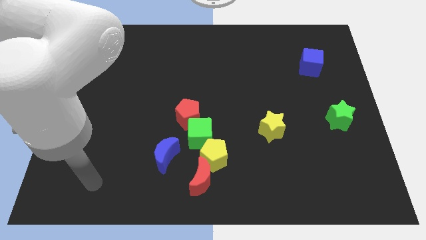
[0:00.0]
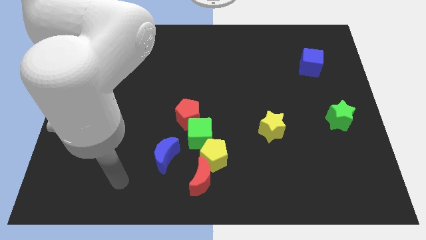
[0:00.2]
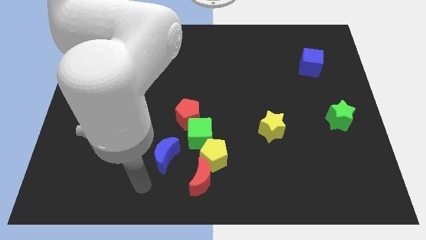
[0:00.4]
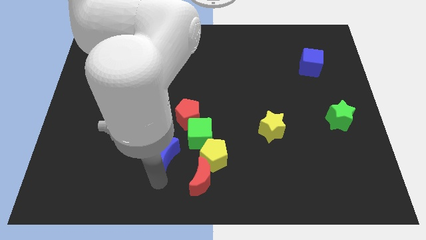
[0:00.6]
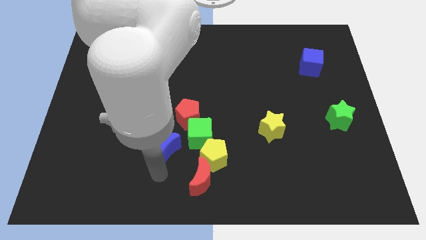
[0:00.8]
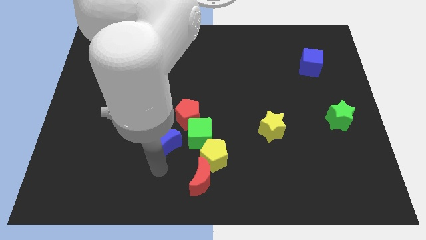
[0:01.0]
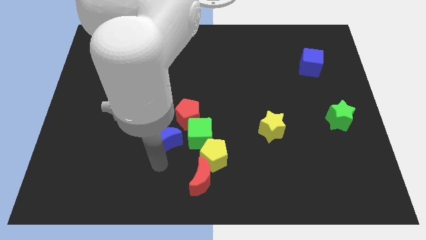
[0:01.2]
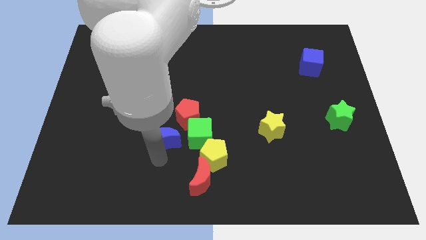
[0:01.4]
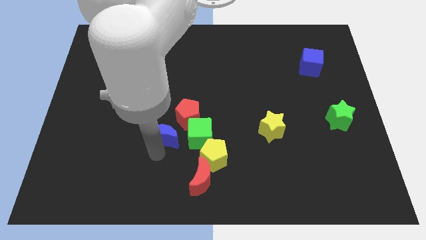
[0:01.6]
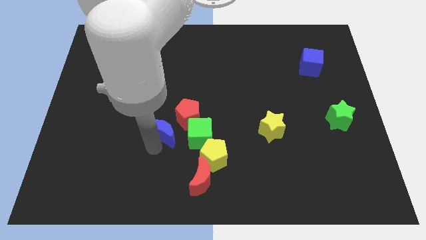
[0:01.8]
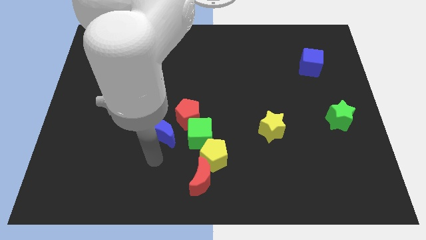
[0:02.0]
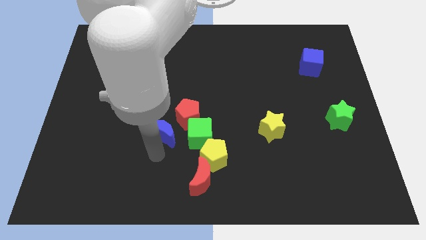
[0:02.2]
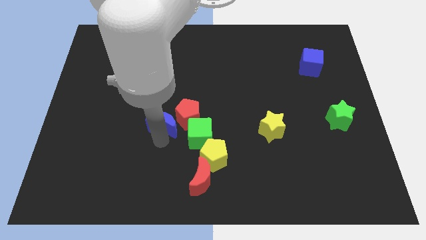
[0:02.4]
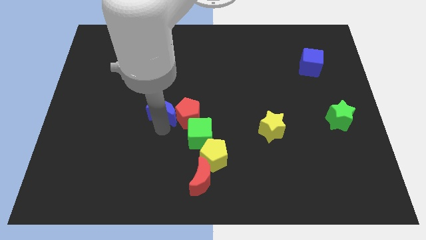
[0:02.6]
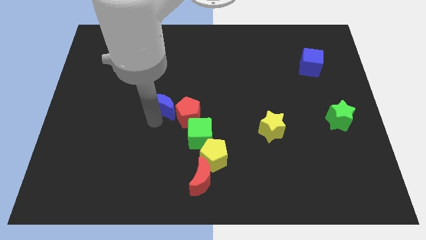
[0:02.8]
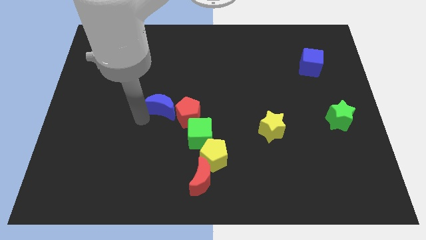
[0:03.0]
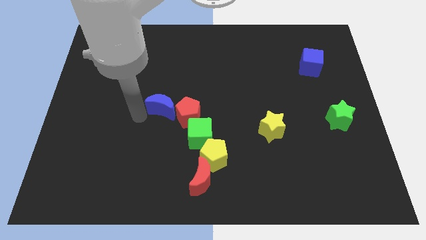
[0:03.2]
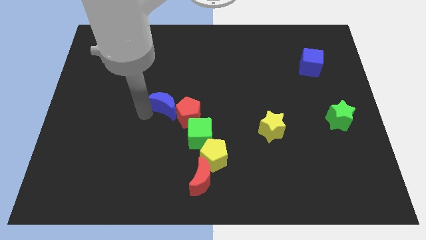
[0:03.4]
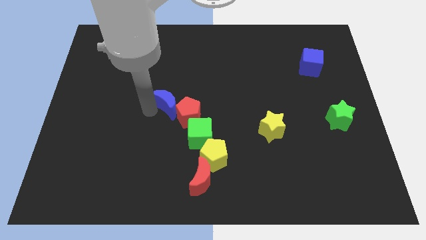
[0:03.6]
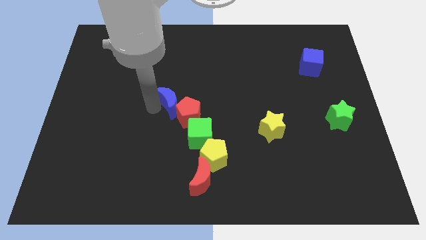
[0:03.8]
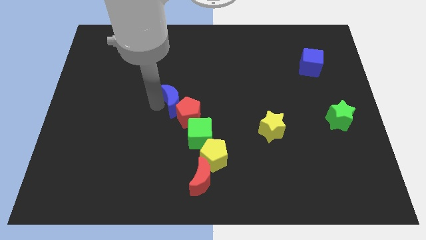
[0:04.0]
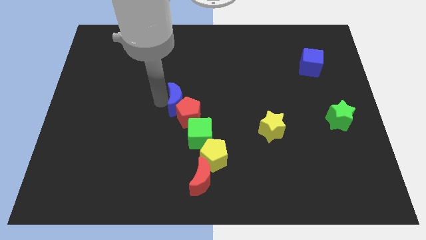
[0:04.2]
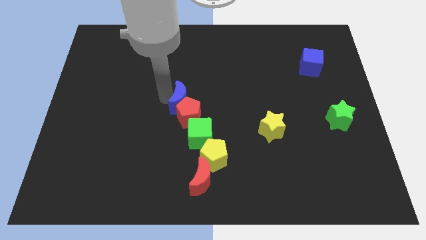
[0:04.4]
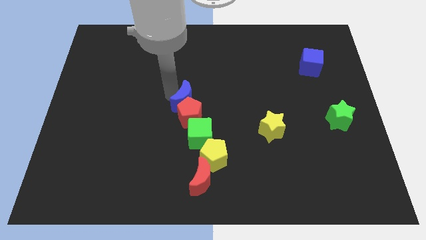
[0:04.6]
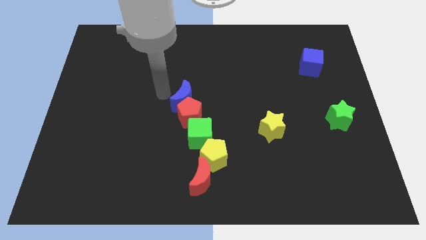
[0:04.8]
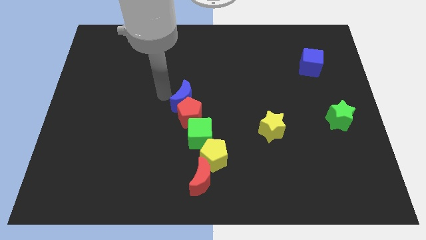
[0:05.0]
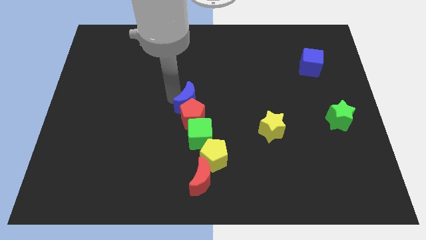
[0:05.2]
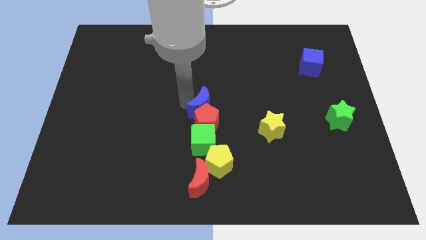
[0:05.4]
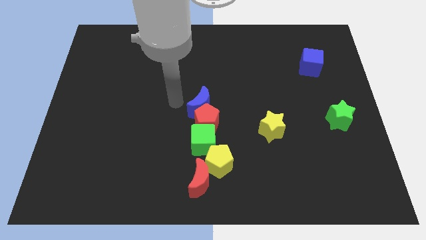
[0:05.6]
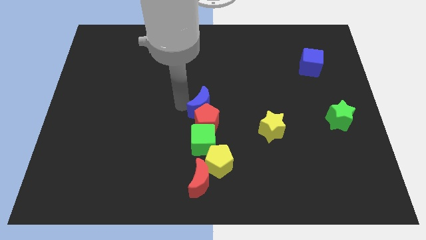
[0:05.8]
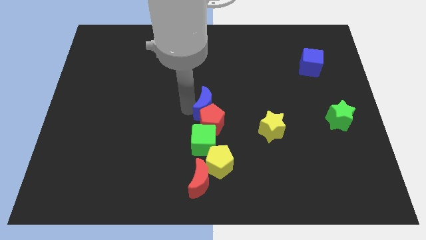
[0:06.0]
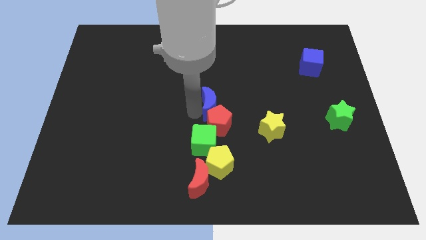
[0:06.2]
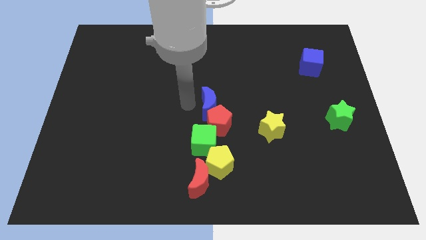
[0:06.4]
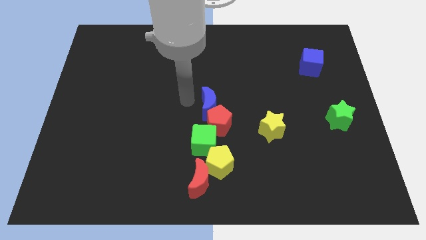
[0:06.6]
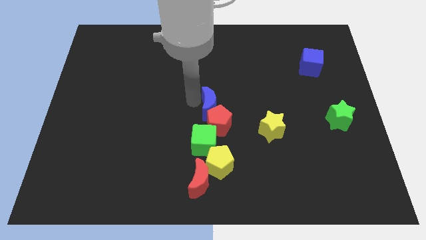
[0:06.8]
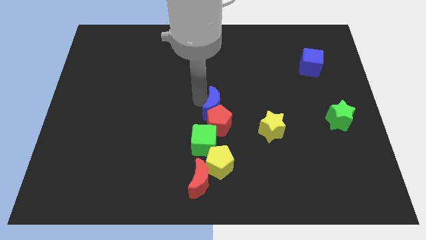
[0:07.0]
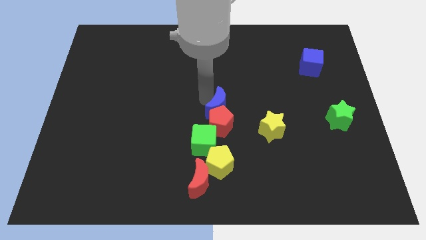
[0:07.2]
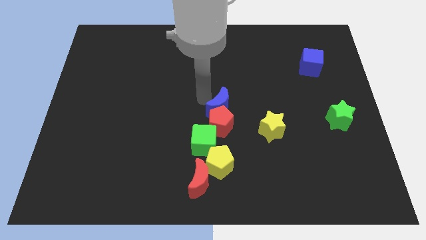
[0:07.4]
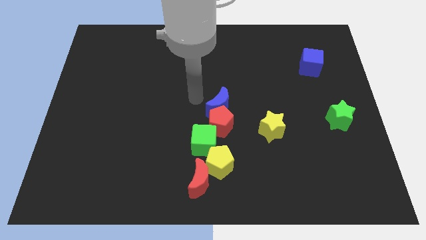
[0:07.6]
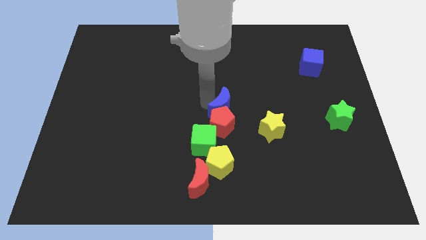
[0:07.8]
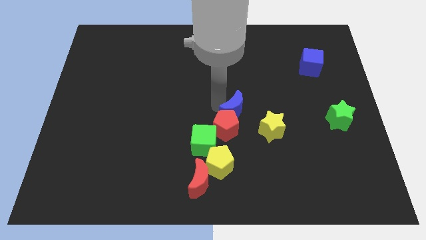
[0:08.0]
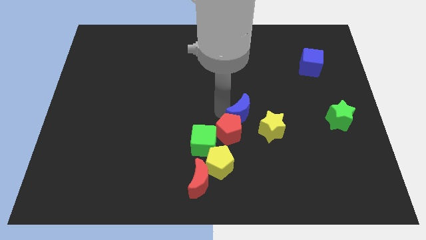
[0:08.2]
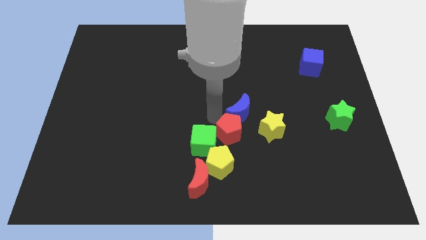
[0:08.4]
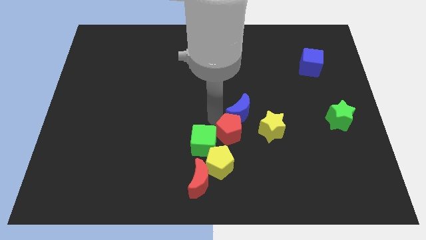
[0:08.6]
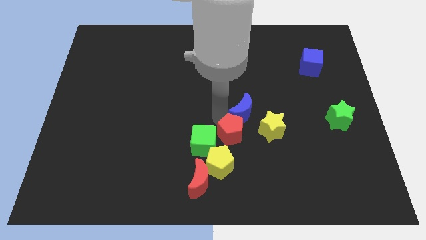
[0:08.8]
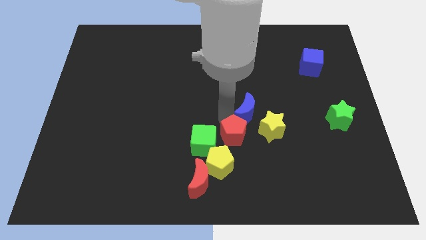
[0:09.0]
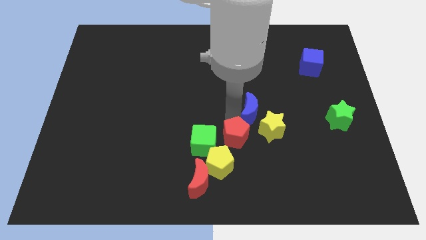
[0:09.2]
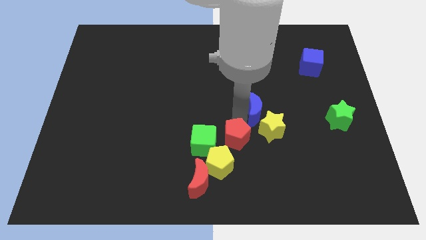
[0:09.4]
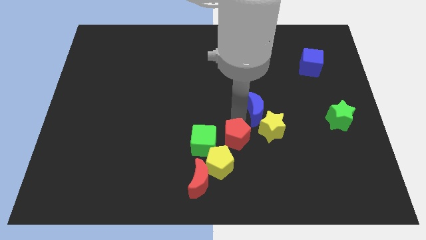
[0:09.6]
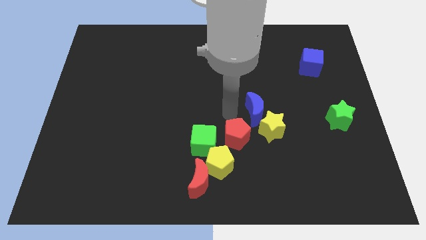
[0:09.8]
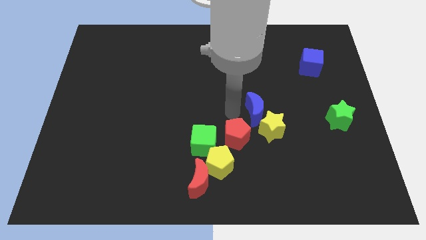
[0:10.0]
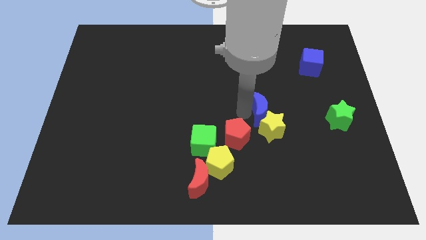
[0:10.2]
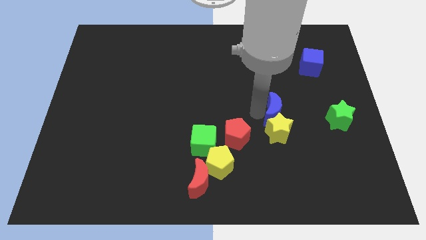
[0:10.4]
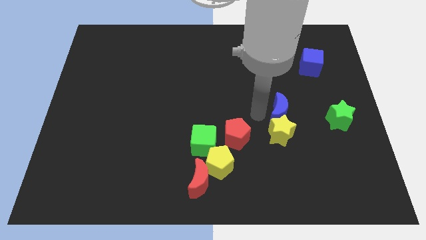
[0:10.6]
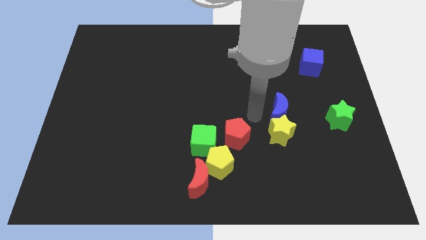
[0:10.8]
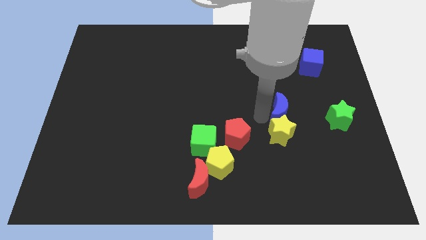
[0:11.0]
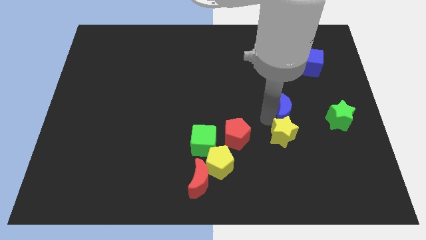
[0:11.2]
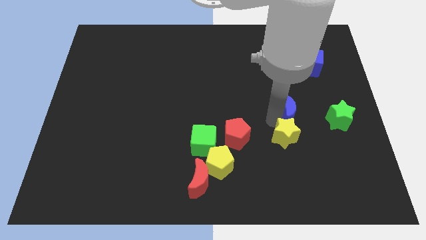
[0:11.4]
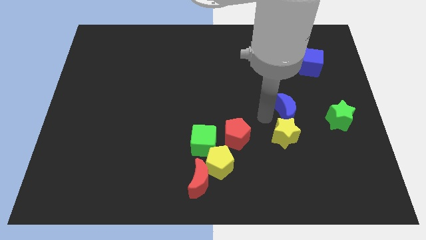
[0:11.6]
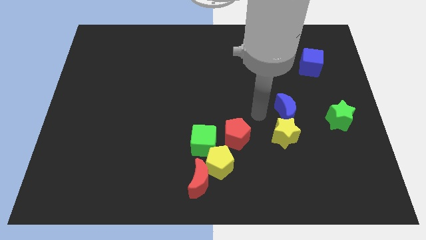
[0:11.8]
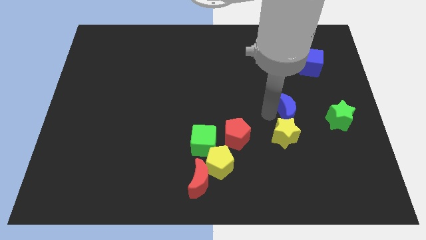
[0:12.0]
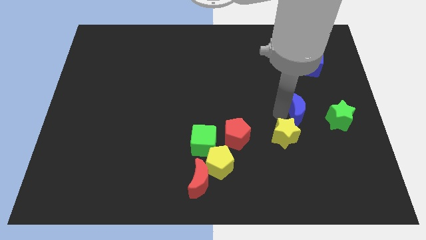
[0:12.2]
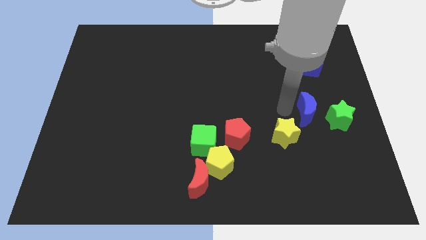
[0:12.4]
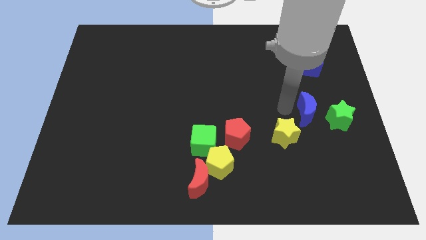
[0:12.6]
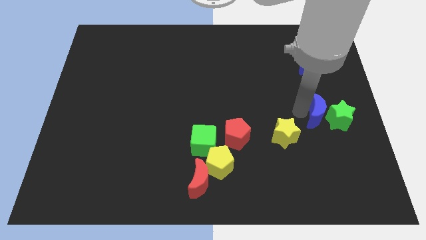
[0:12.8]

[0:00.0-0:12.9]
put the blue moon towards the green star

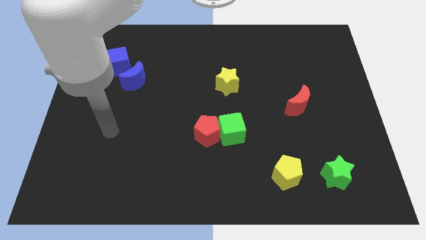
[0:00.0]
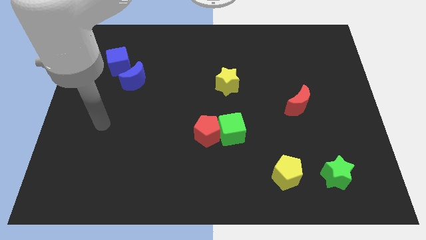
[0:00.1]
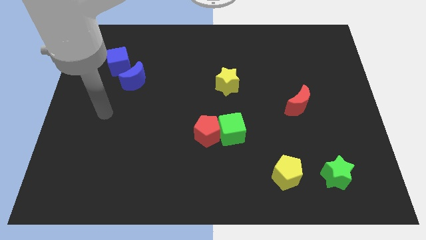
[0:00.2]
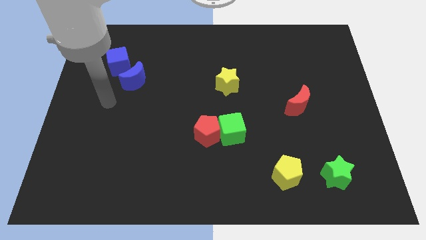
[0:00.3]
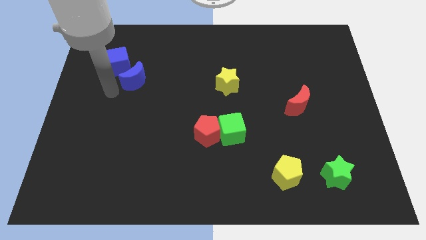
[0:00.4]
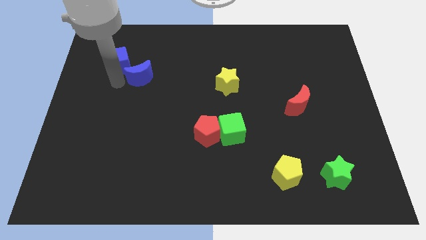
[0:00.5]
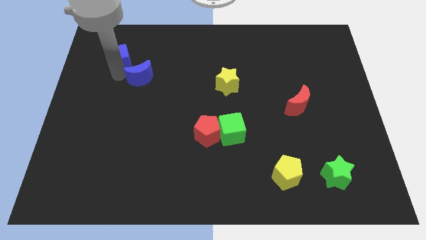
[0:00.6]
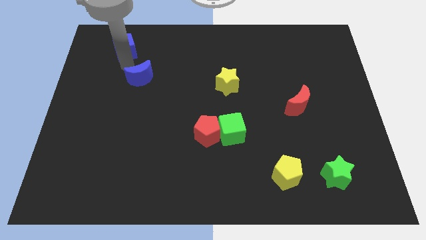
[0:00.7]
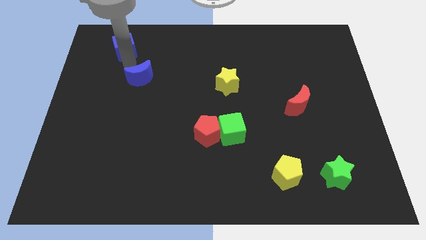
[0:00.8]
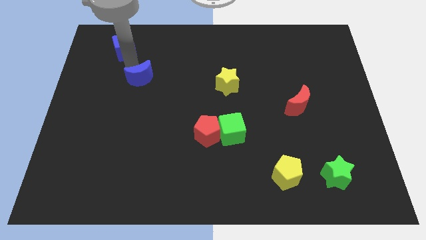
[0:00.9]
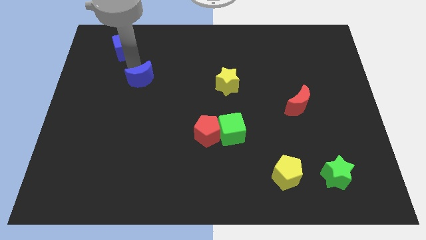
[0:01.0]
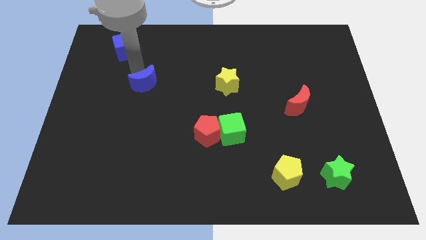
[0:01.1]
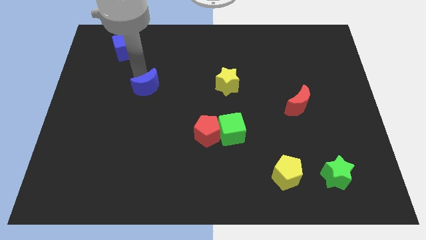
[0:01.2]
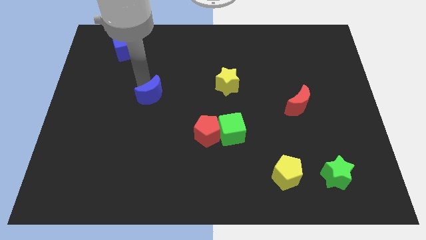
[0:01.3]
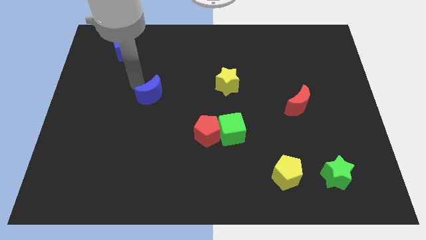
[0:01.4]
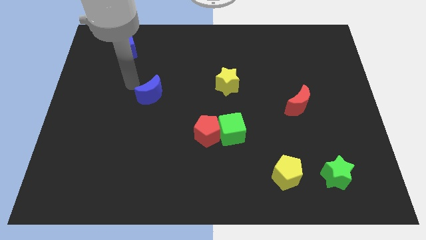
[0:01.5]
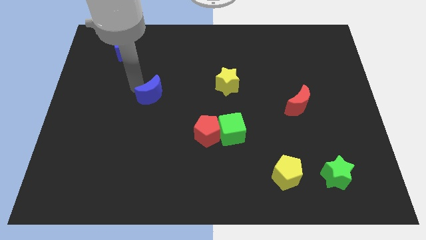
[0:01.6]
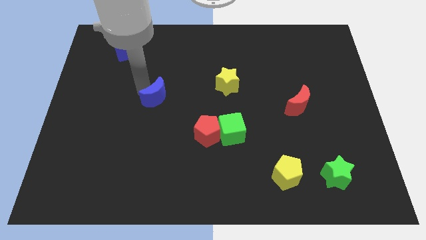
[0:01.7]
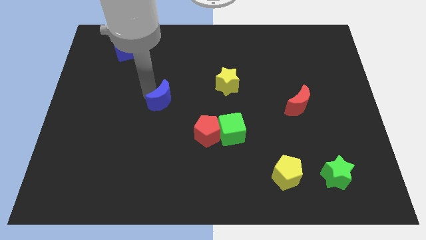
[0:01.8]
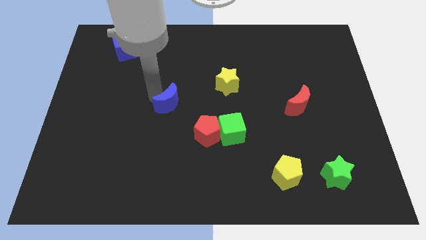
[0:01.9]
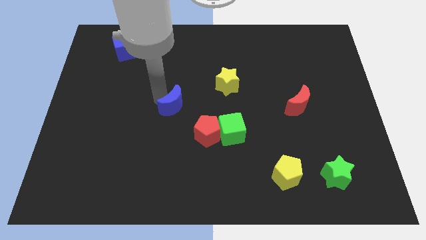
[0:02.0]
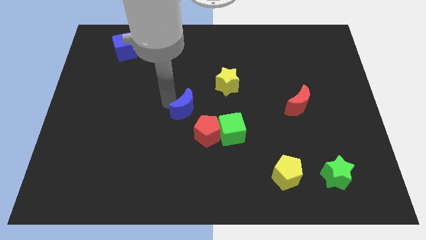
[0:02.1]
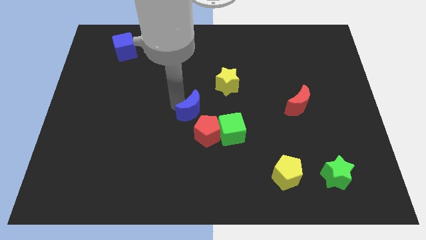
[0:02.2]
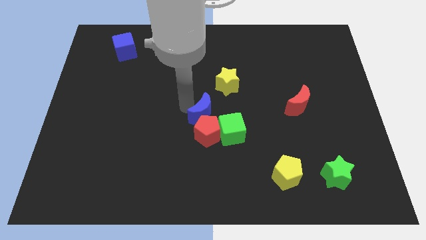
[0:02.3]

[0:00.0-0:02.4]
put the blue moon close to the red pentagon
